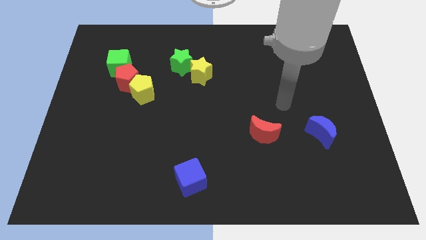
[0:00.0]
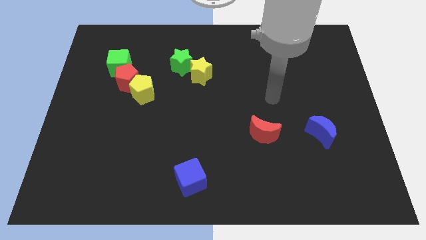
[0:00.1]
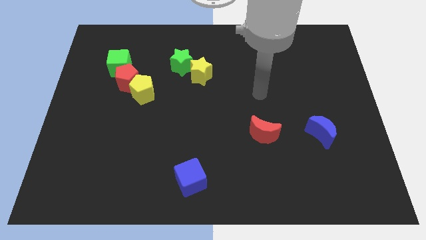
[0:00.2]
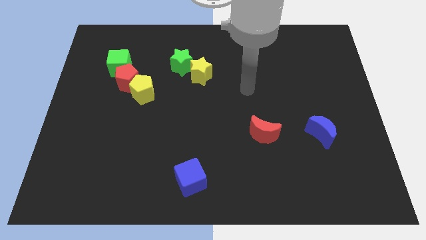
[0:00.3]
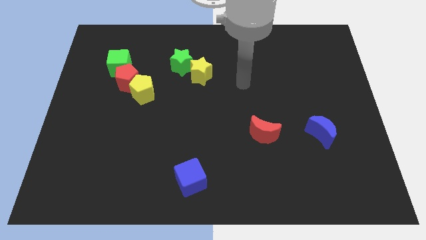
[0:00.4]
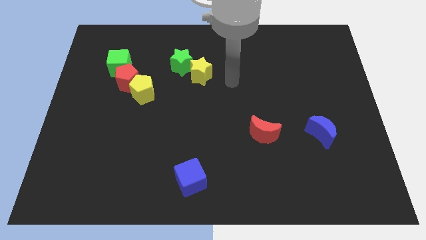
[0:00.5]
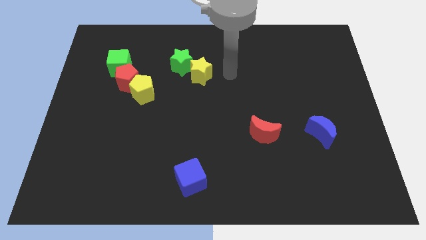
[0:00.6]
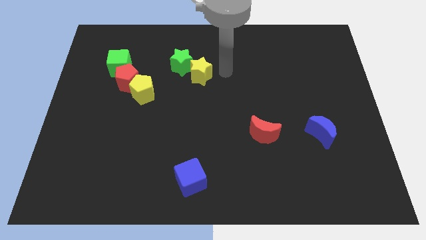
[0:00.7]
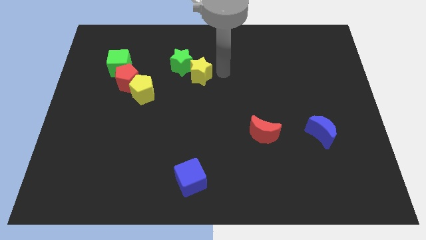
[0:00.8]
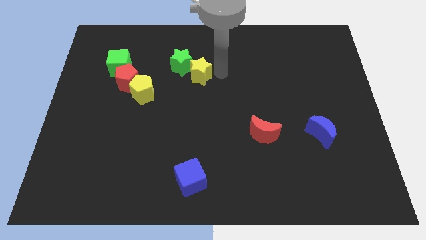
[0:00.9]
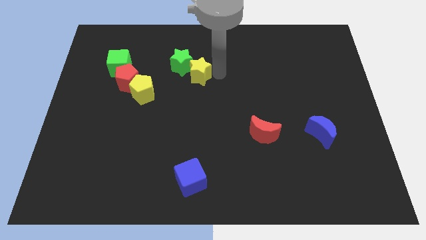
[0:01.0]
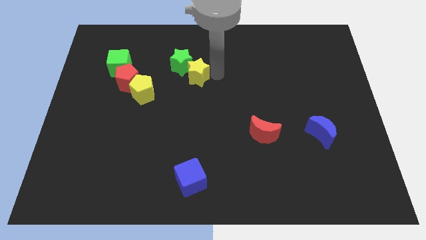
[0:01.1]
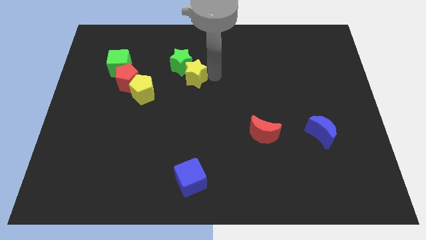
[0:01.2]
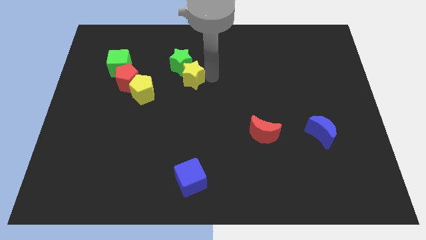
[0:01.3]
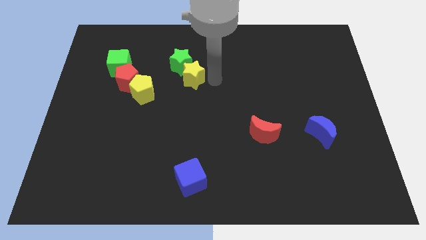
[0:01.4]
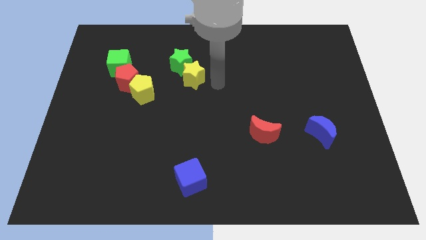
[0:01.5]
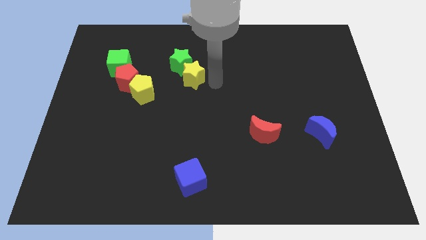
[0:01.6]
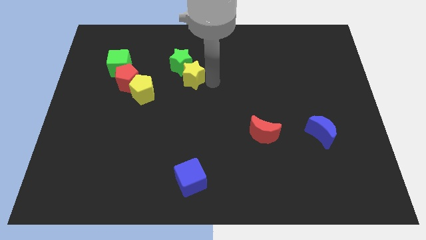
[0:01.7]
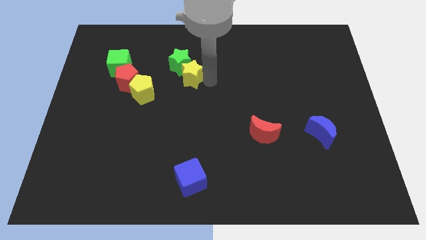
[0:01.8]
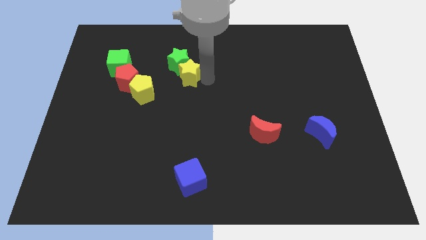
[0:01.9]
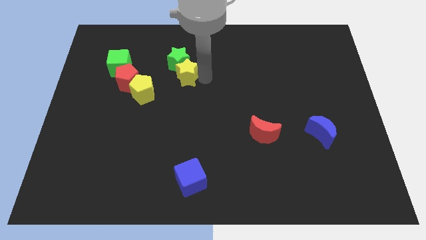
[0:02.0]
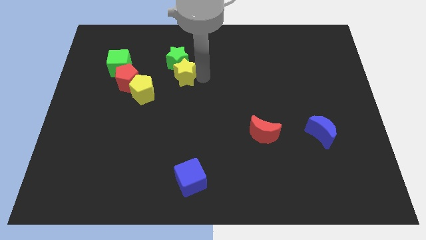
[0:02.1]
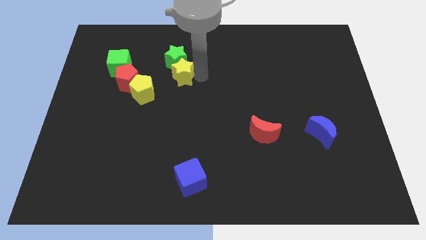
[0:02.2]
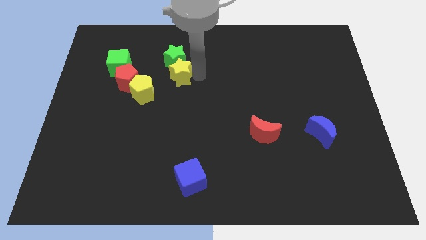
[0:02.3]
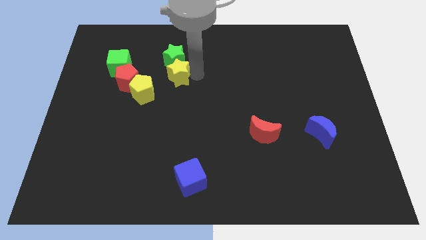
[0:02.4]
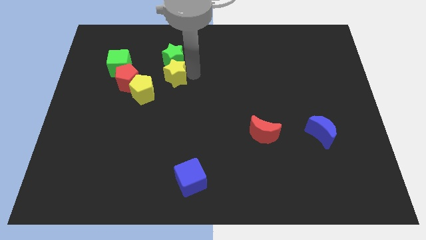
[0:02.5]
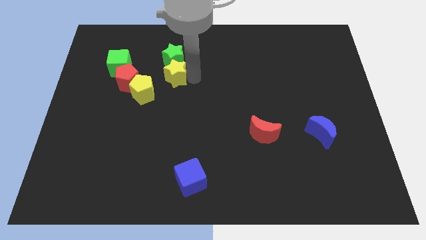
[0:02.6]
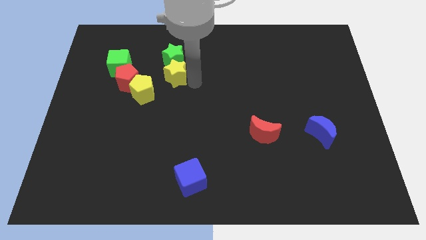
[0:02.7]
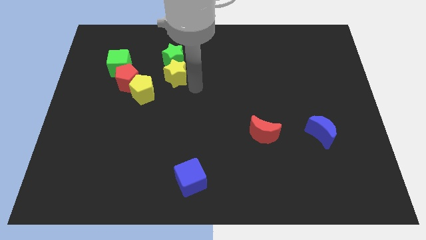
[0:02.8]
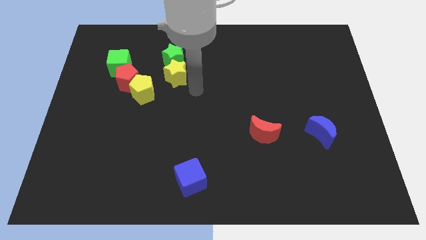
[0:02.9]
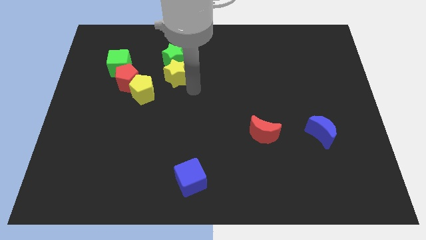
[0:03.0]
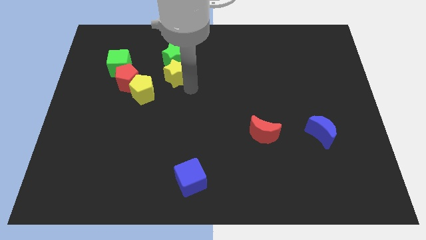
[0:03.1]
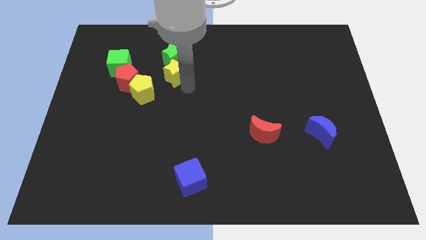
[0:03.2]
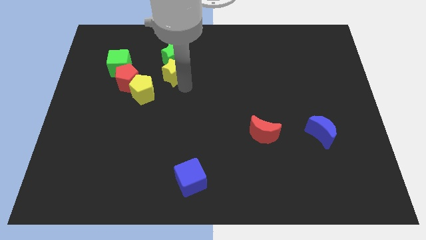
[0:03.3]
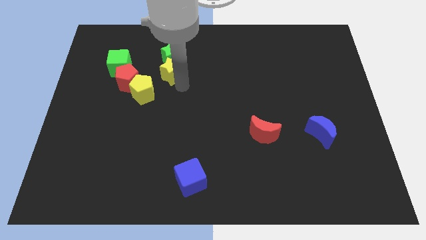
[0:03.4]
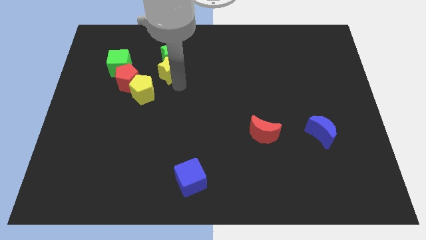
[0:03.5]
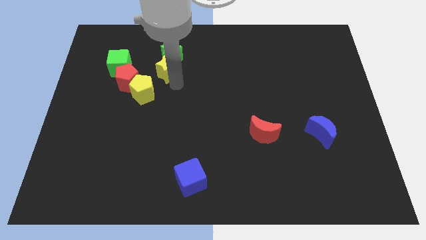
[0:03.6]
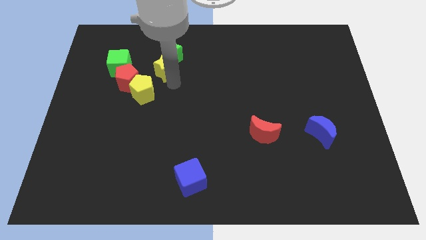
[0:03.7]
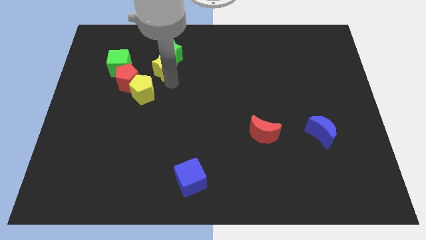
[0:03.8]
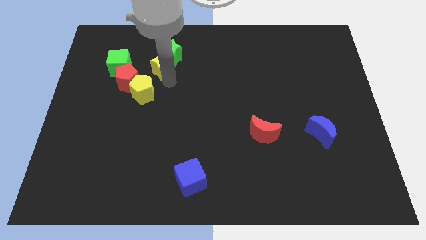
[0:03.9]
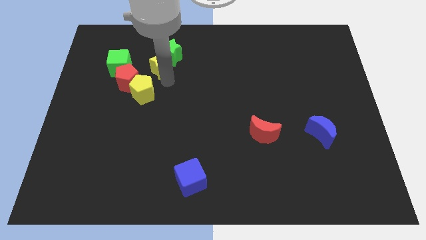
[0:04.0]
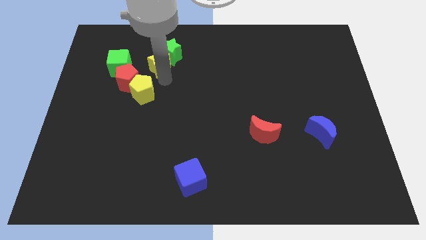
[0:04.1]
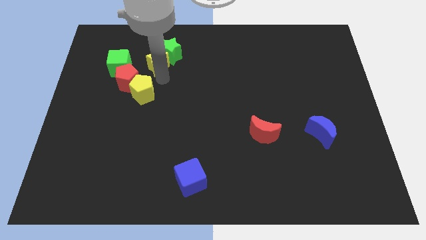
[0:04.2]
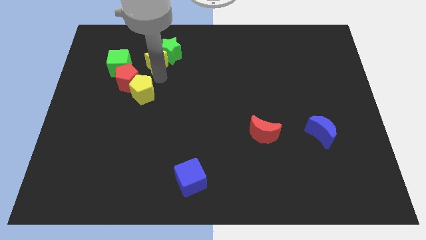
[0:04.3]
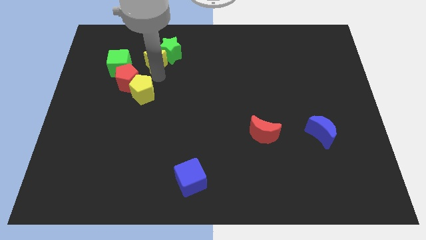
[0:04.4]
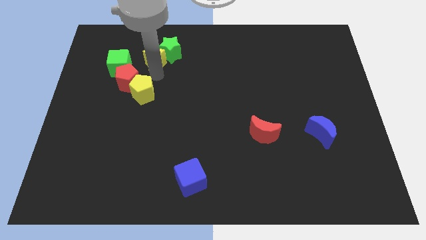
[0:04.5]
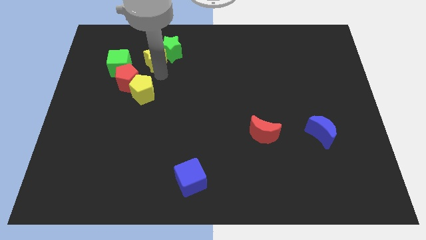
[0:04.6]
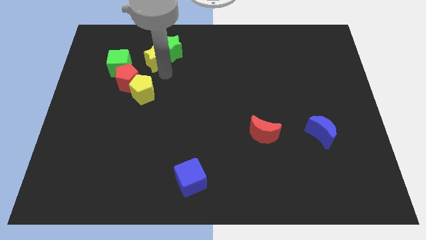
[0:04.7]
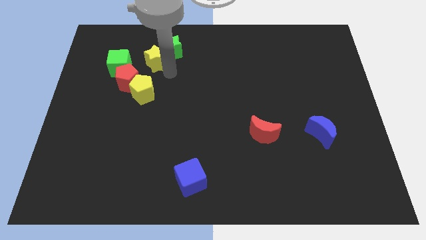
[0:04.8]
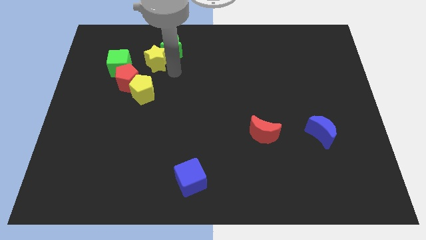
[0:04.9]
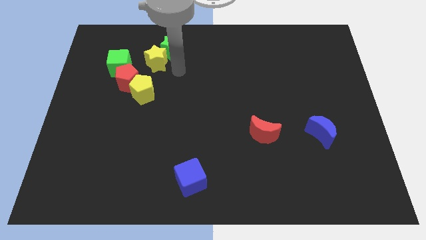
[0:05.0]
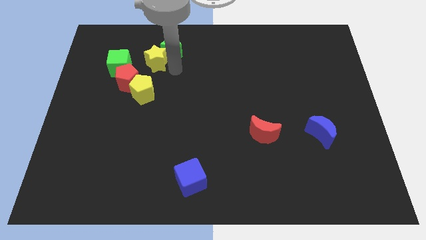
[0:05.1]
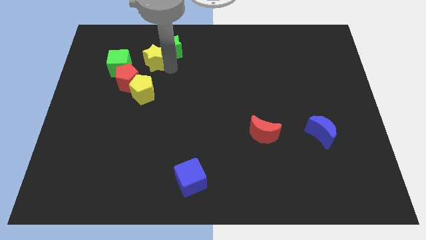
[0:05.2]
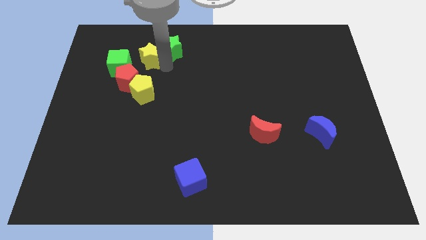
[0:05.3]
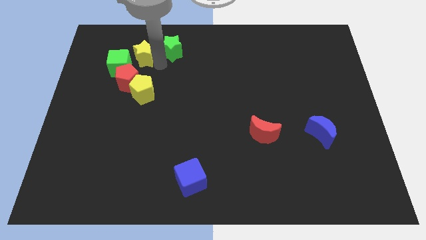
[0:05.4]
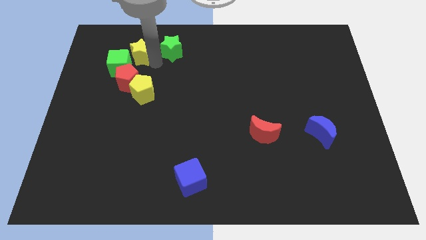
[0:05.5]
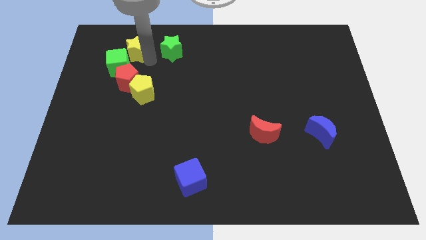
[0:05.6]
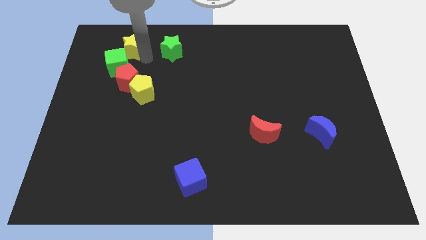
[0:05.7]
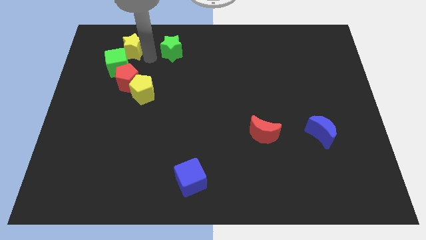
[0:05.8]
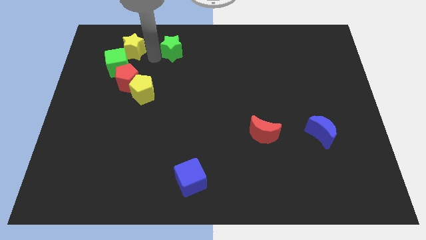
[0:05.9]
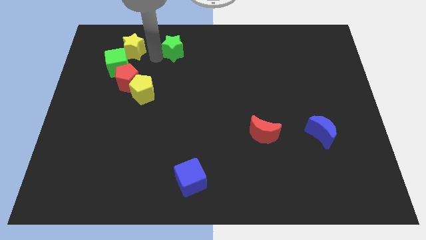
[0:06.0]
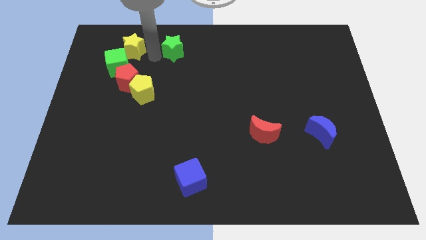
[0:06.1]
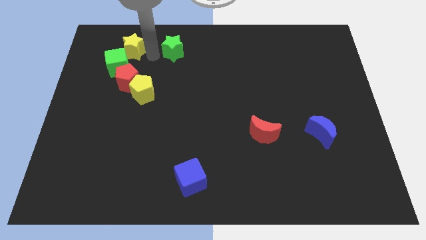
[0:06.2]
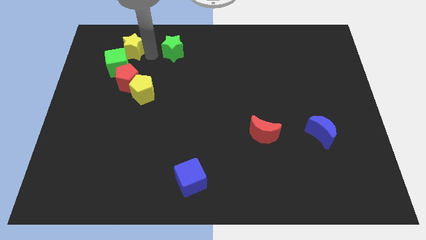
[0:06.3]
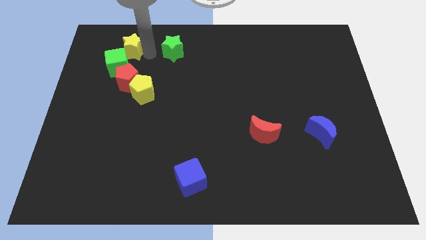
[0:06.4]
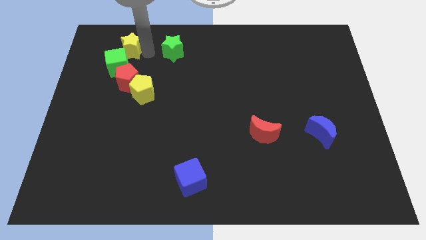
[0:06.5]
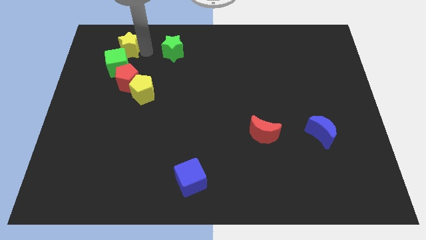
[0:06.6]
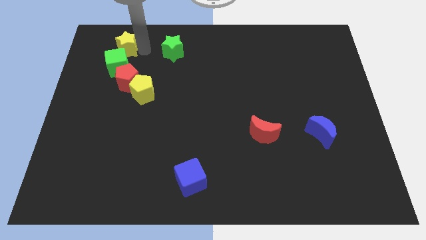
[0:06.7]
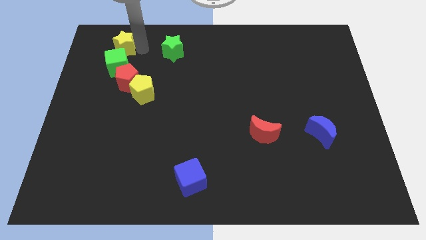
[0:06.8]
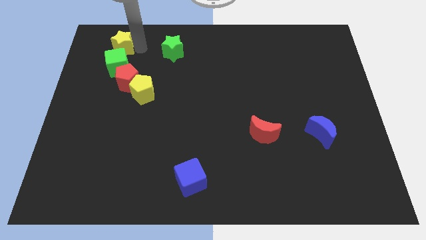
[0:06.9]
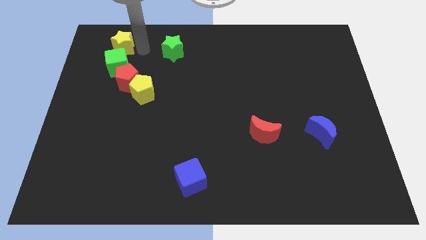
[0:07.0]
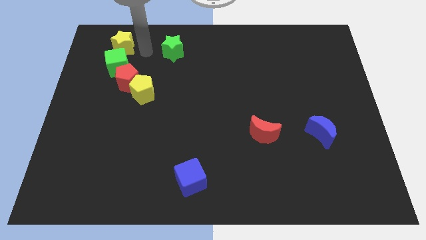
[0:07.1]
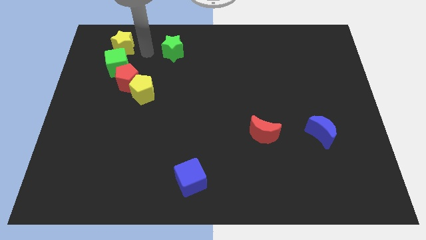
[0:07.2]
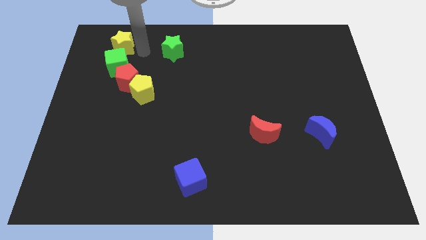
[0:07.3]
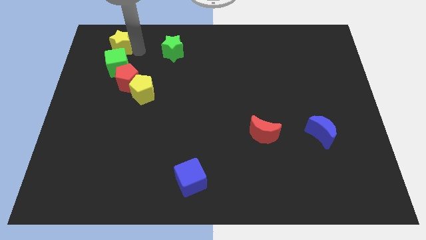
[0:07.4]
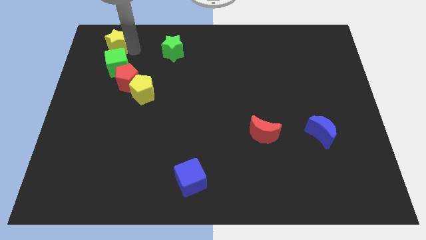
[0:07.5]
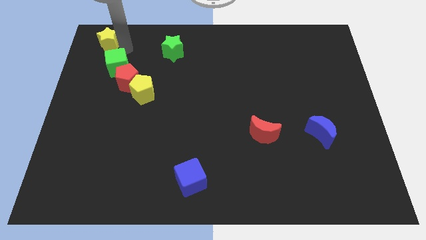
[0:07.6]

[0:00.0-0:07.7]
move the yellow star to the top left of the board
